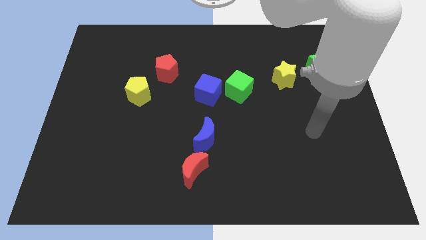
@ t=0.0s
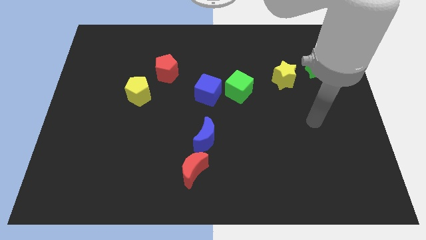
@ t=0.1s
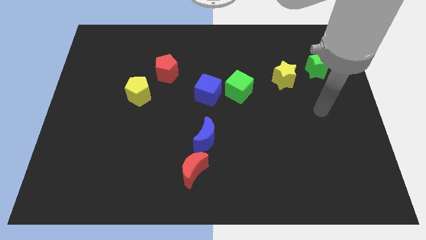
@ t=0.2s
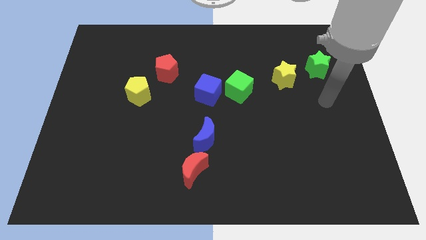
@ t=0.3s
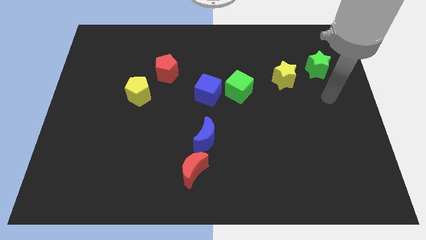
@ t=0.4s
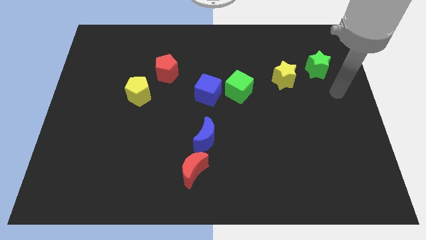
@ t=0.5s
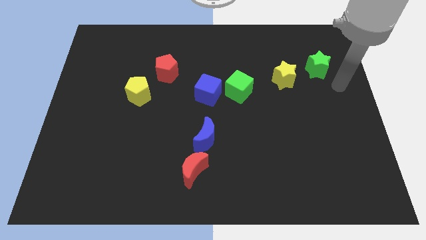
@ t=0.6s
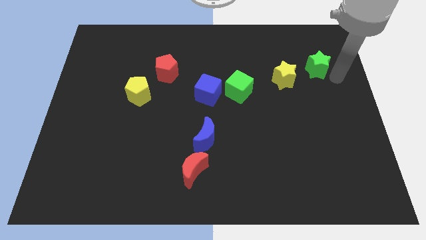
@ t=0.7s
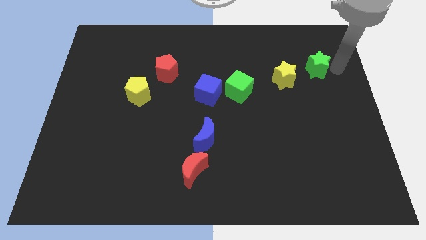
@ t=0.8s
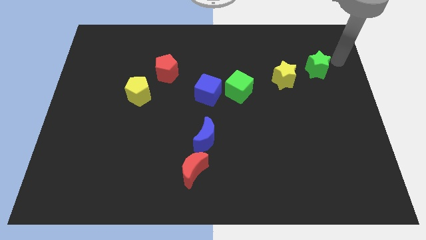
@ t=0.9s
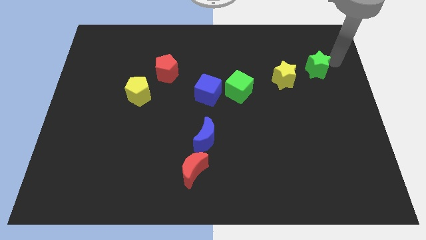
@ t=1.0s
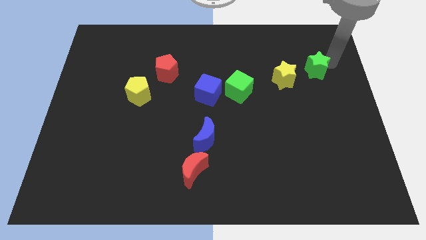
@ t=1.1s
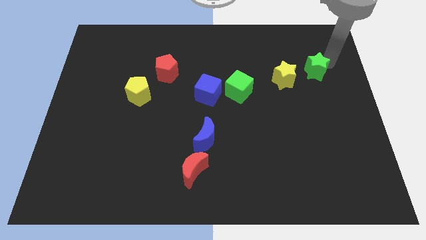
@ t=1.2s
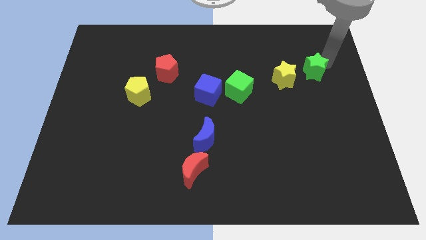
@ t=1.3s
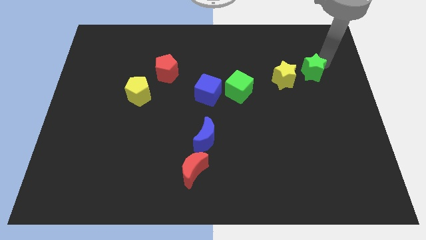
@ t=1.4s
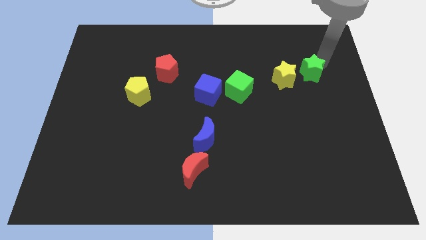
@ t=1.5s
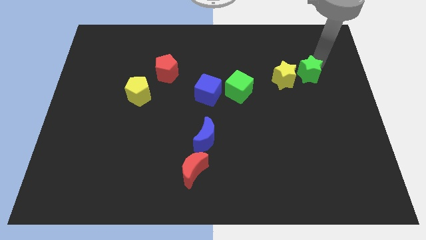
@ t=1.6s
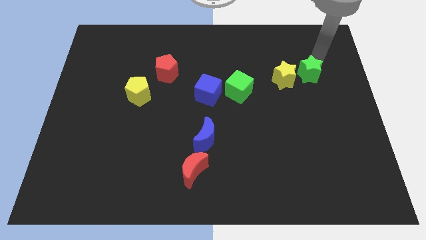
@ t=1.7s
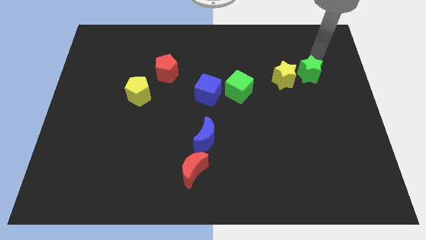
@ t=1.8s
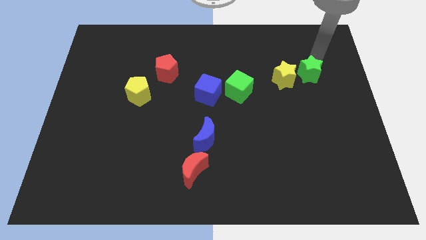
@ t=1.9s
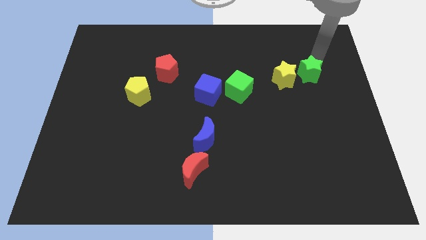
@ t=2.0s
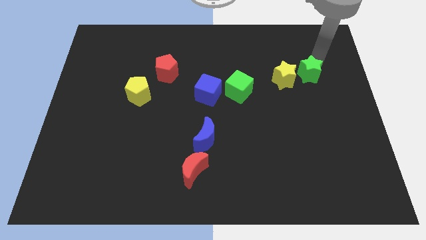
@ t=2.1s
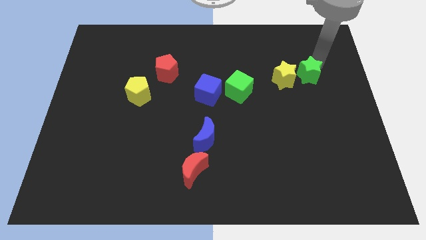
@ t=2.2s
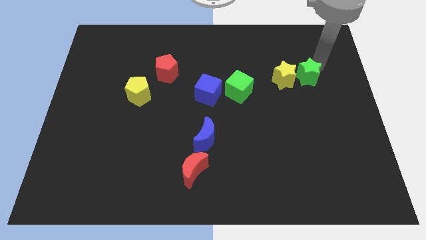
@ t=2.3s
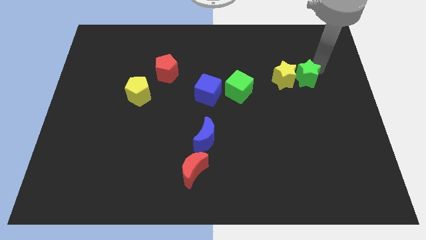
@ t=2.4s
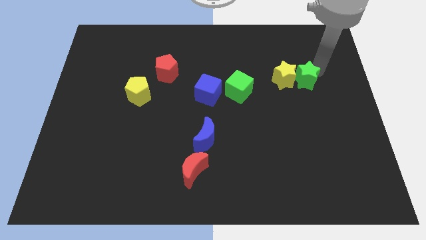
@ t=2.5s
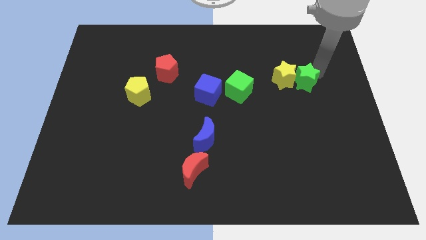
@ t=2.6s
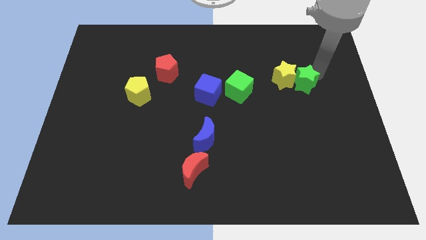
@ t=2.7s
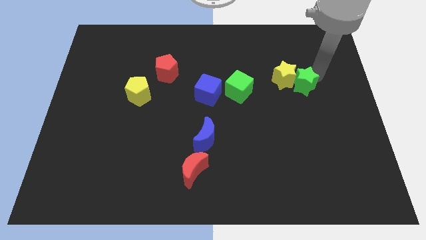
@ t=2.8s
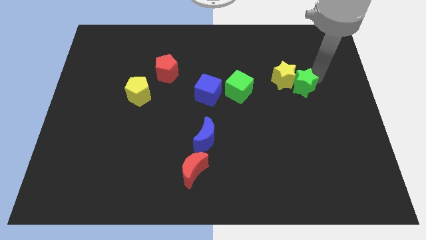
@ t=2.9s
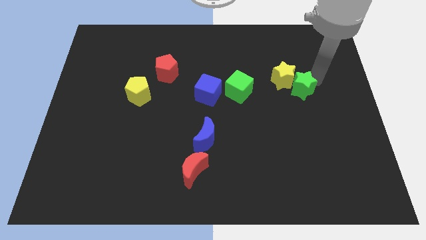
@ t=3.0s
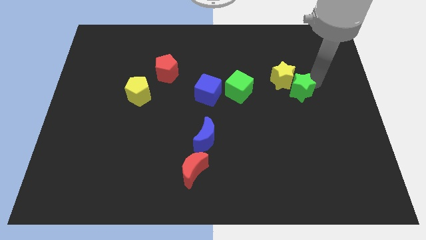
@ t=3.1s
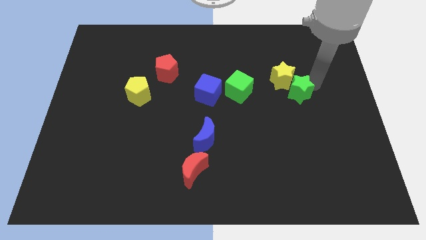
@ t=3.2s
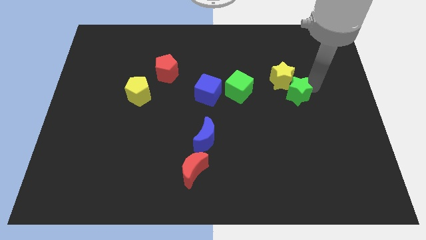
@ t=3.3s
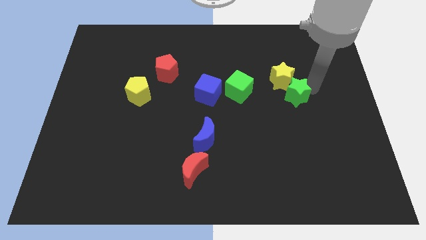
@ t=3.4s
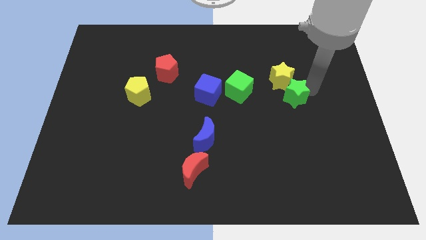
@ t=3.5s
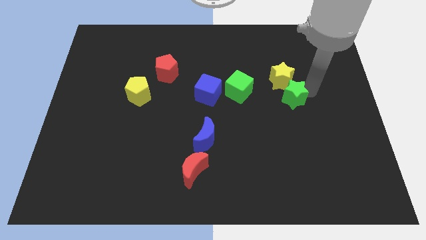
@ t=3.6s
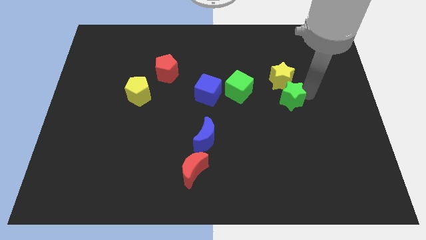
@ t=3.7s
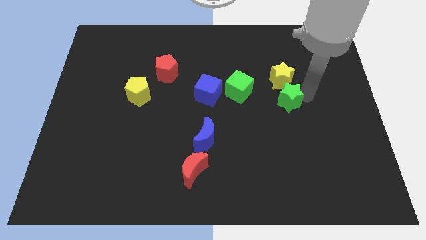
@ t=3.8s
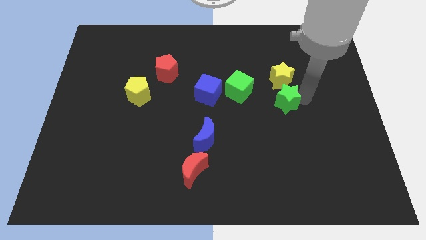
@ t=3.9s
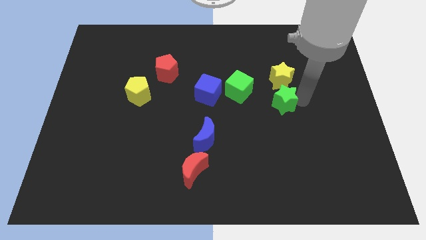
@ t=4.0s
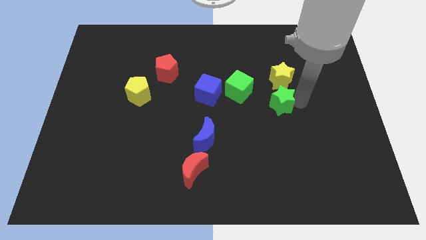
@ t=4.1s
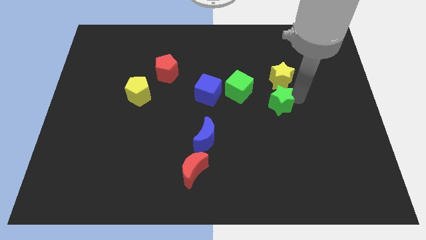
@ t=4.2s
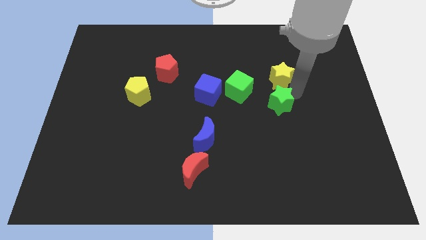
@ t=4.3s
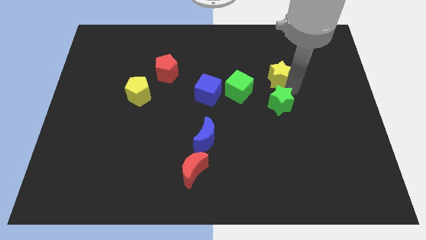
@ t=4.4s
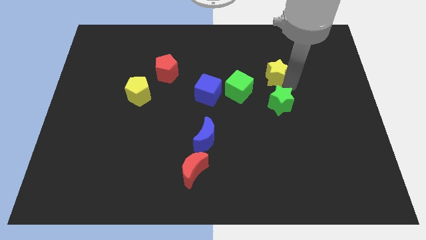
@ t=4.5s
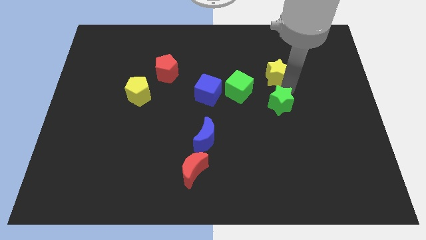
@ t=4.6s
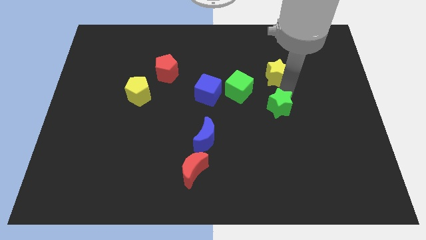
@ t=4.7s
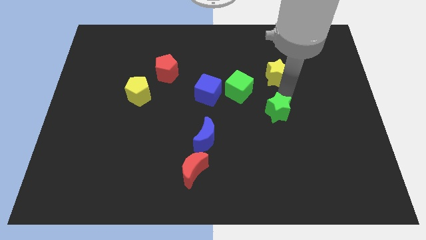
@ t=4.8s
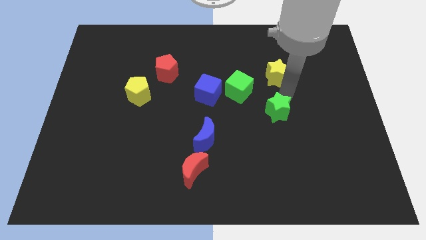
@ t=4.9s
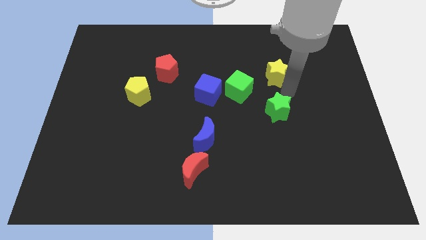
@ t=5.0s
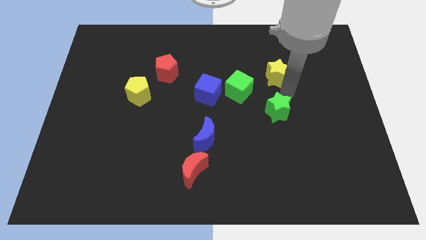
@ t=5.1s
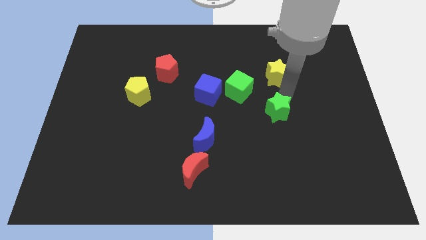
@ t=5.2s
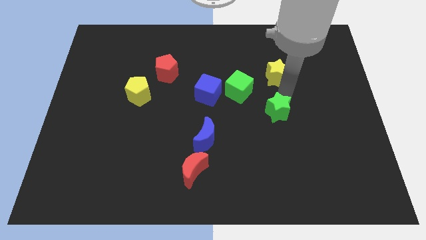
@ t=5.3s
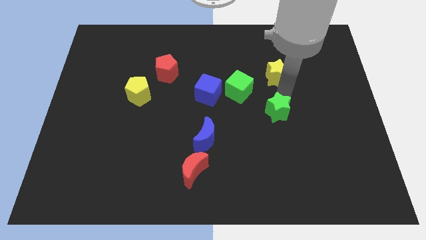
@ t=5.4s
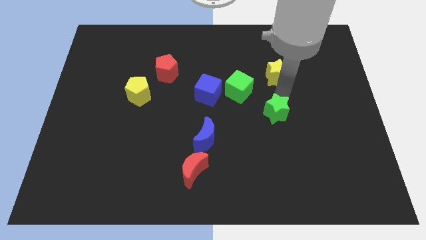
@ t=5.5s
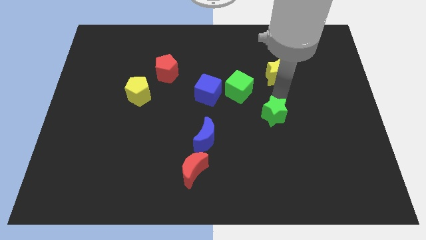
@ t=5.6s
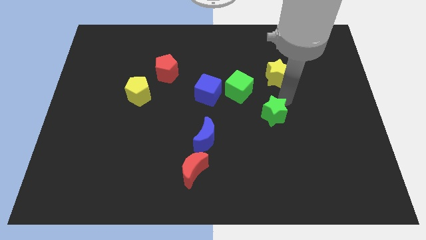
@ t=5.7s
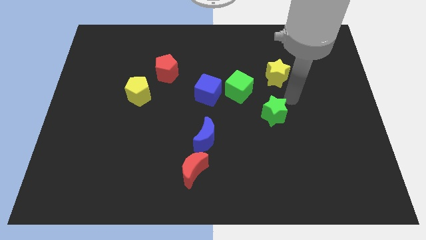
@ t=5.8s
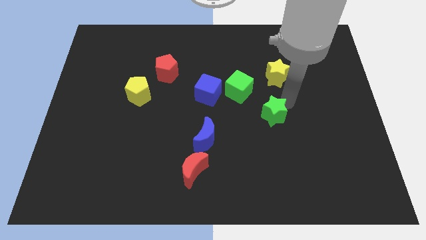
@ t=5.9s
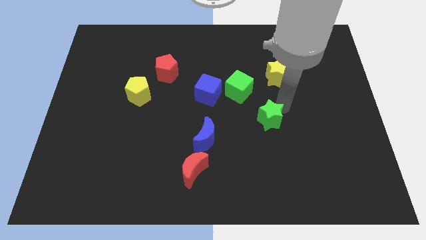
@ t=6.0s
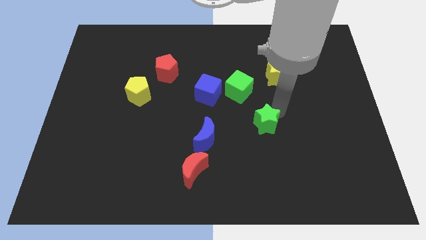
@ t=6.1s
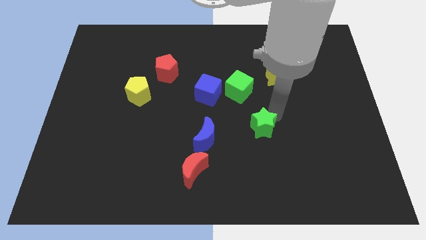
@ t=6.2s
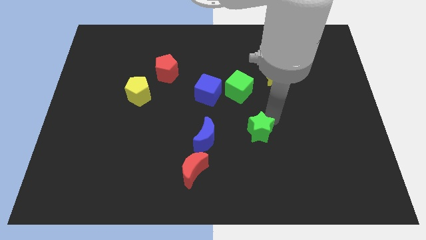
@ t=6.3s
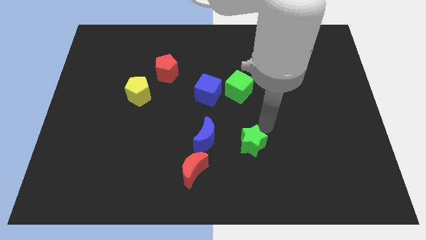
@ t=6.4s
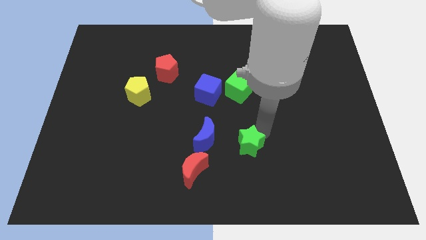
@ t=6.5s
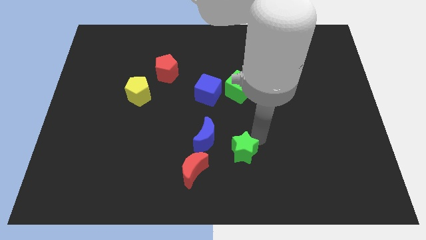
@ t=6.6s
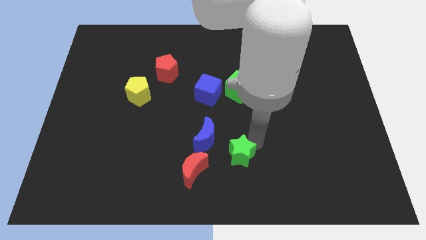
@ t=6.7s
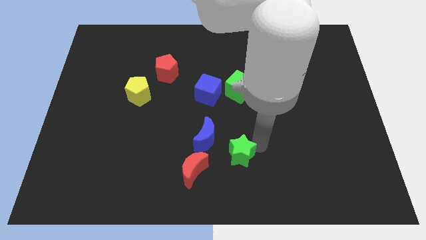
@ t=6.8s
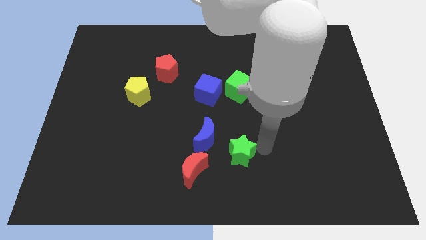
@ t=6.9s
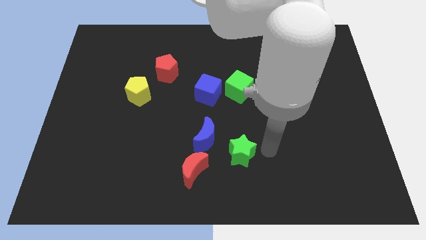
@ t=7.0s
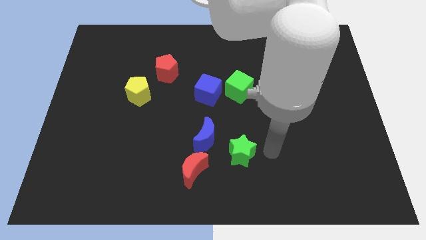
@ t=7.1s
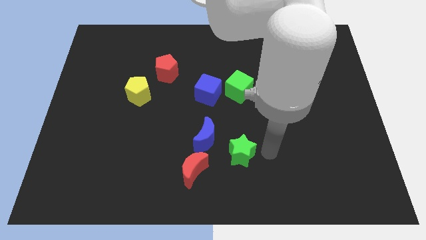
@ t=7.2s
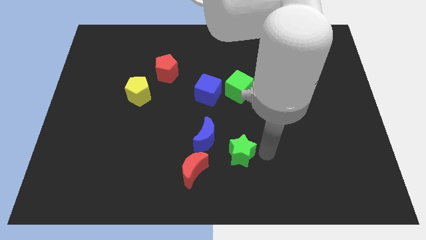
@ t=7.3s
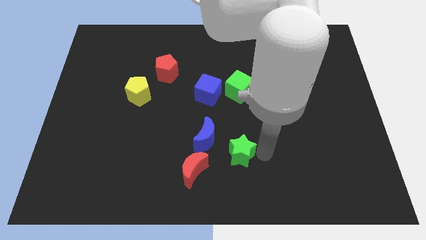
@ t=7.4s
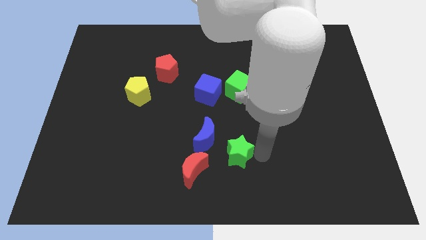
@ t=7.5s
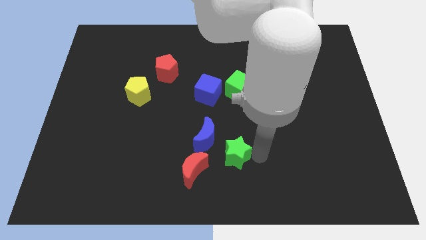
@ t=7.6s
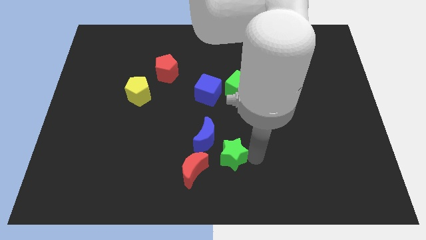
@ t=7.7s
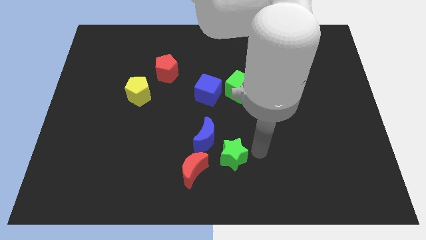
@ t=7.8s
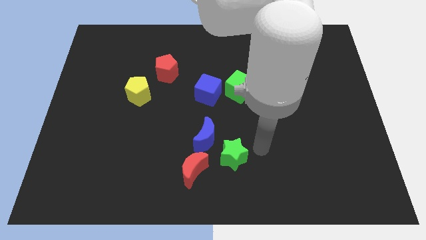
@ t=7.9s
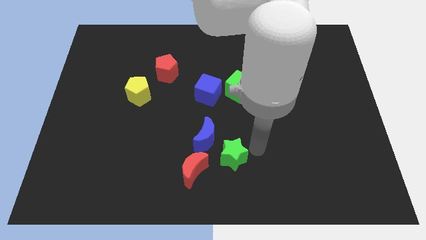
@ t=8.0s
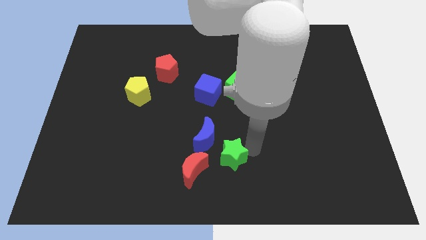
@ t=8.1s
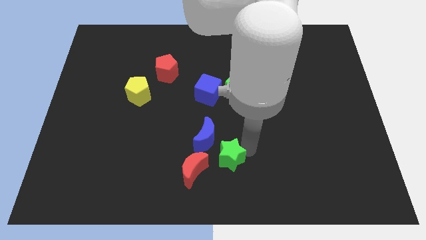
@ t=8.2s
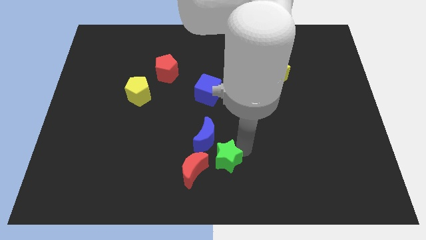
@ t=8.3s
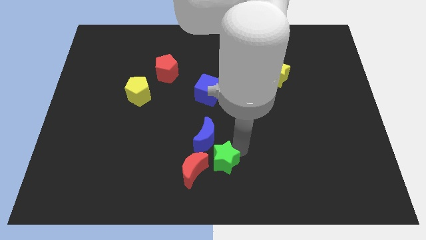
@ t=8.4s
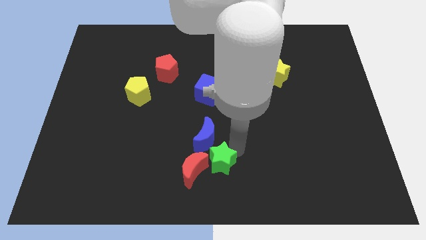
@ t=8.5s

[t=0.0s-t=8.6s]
put the green star next to the red moon
